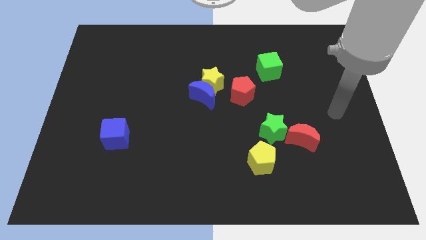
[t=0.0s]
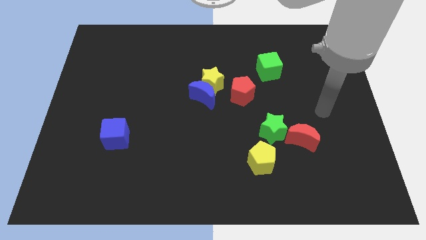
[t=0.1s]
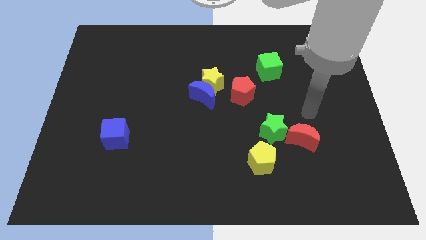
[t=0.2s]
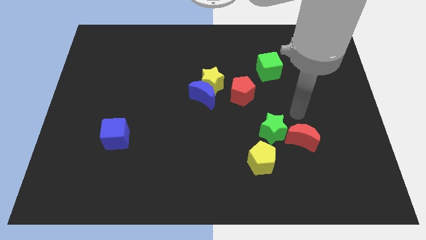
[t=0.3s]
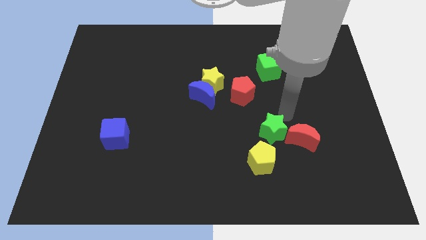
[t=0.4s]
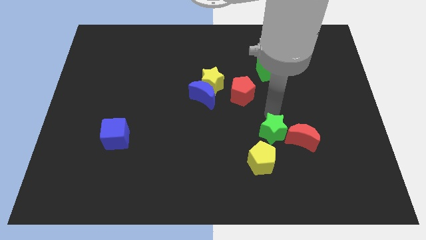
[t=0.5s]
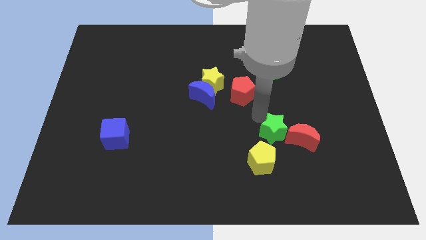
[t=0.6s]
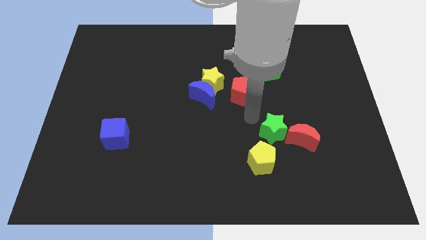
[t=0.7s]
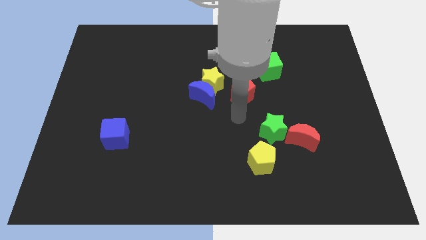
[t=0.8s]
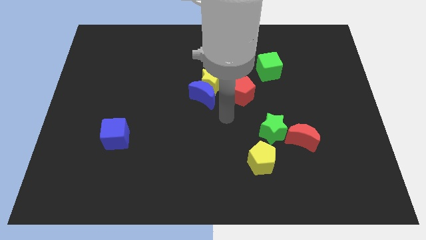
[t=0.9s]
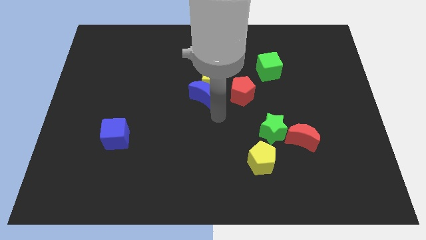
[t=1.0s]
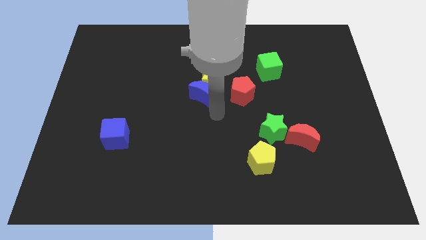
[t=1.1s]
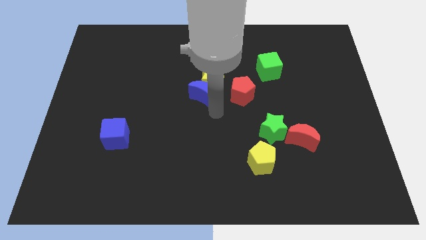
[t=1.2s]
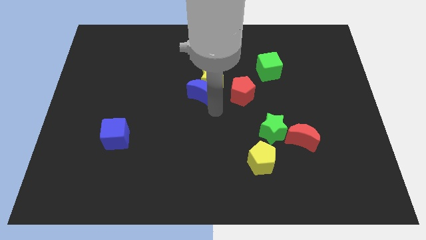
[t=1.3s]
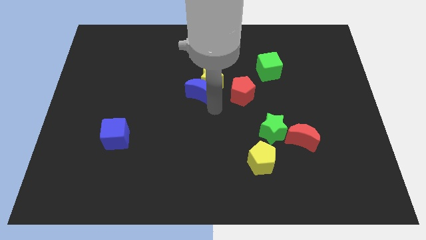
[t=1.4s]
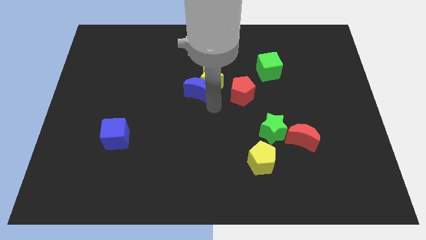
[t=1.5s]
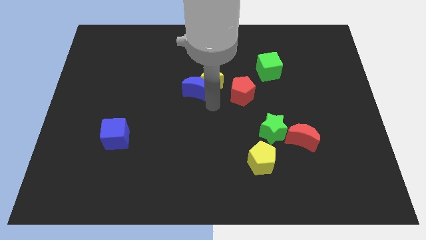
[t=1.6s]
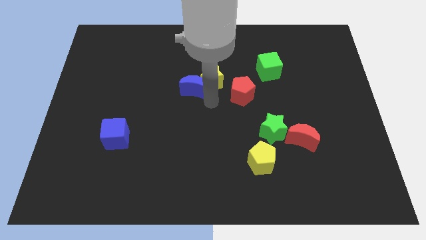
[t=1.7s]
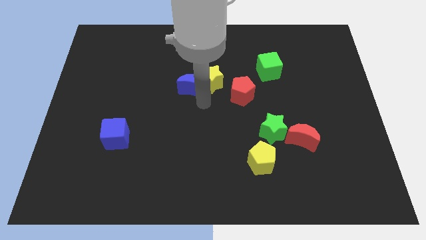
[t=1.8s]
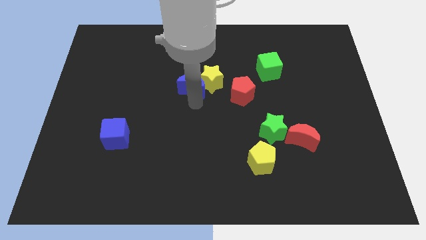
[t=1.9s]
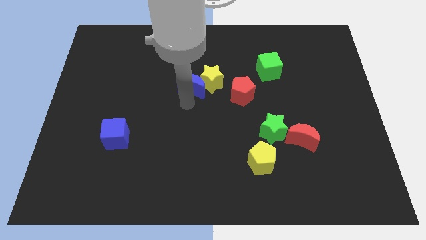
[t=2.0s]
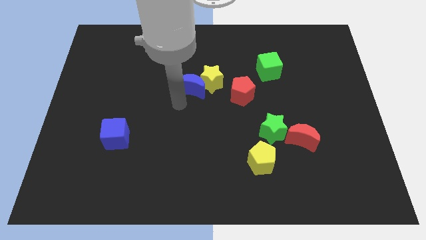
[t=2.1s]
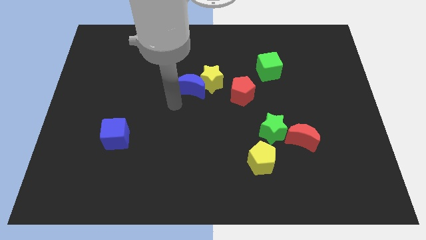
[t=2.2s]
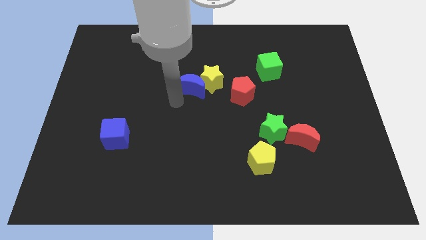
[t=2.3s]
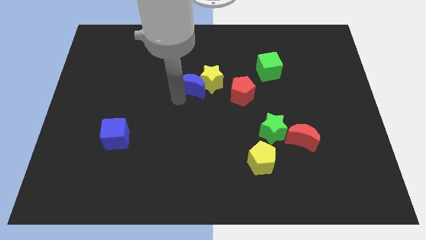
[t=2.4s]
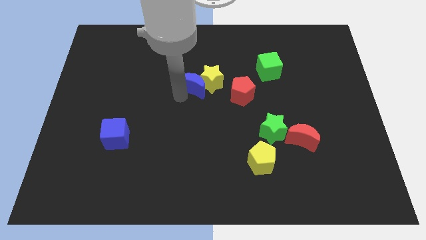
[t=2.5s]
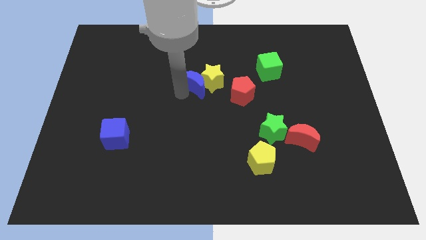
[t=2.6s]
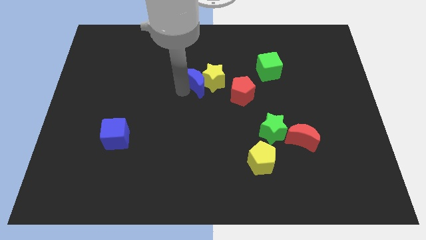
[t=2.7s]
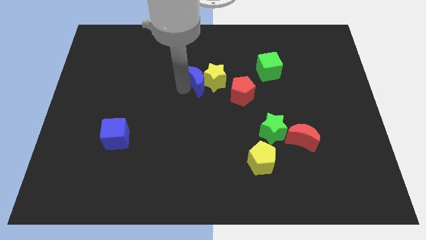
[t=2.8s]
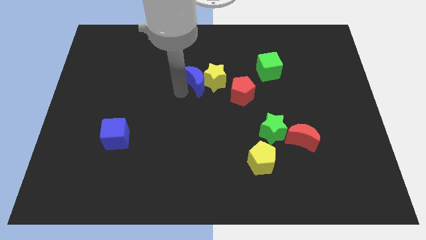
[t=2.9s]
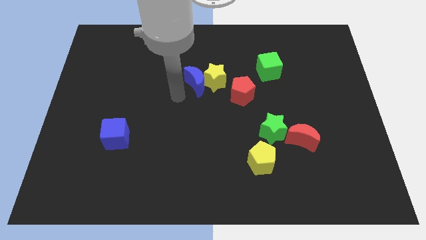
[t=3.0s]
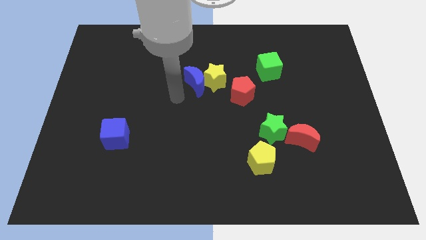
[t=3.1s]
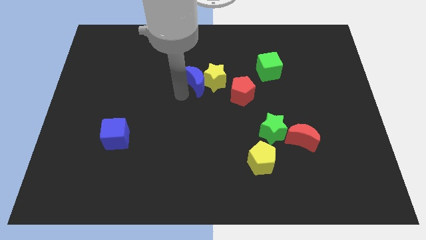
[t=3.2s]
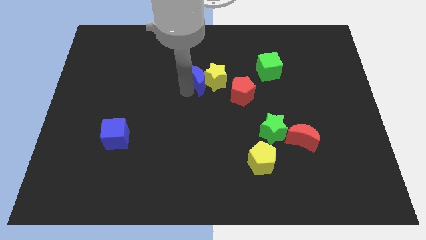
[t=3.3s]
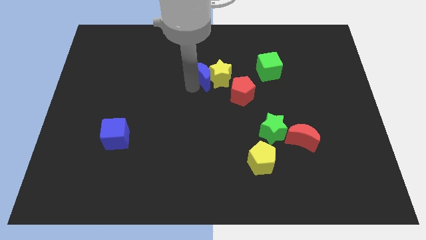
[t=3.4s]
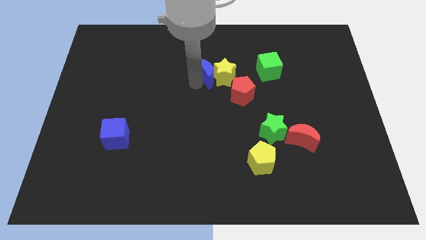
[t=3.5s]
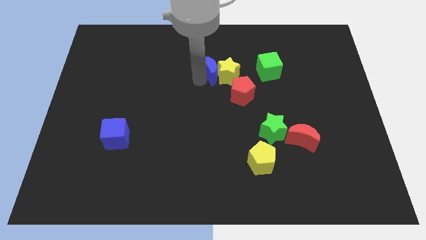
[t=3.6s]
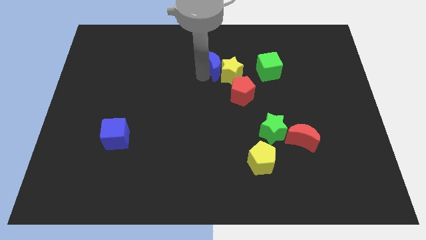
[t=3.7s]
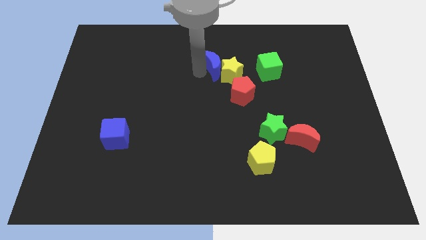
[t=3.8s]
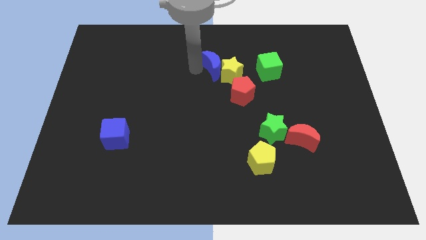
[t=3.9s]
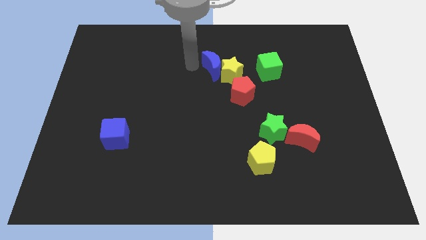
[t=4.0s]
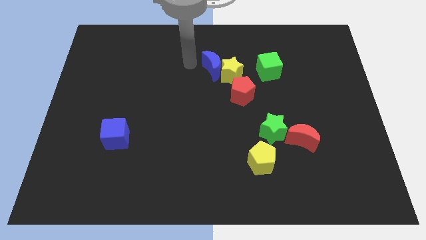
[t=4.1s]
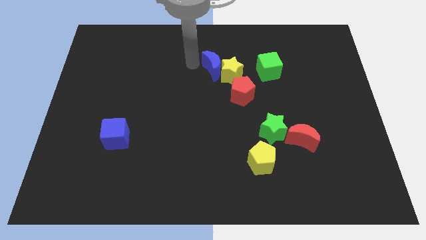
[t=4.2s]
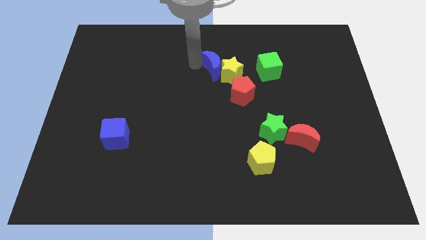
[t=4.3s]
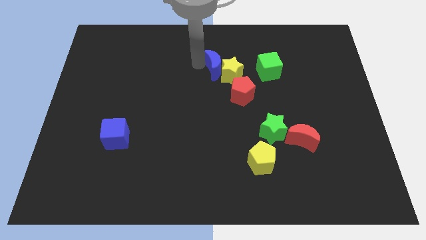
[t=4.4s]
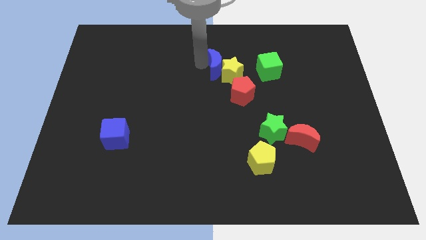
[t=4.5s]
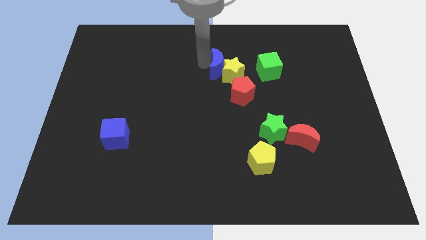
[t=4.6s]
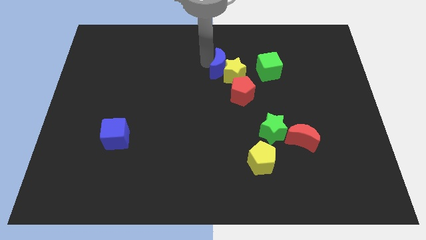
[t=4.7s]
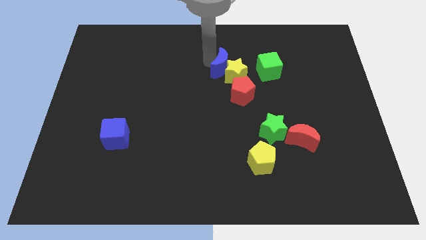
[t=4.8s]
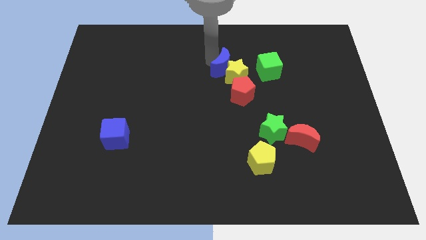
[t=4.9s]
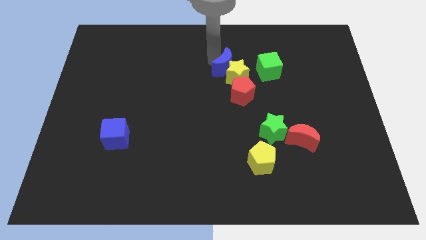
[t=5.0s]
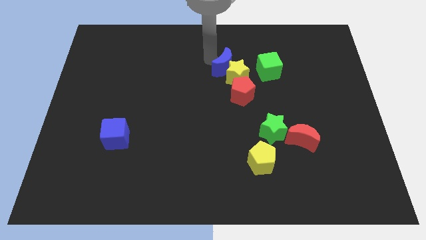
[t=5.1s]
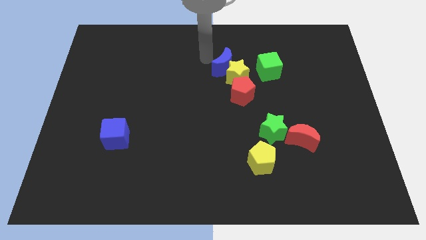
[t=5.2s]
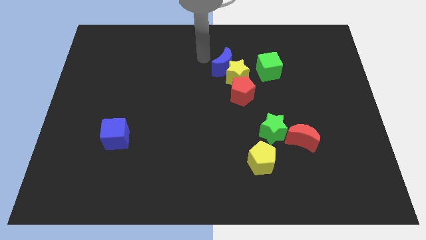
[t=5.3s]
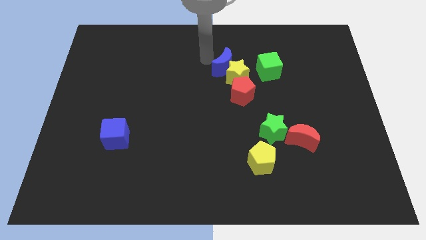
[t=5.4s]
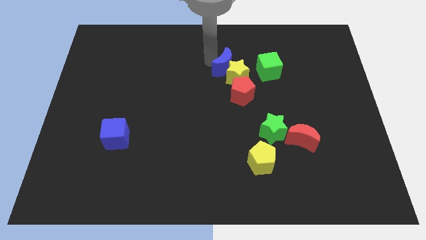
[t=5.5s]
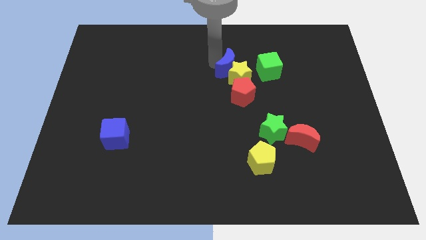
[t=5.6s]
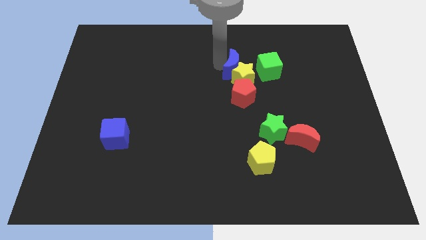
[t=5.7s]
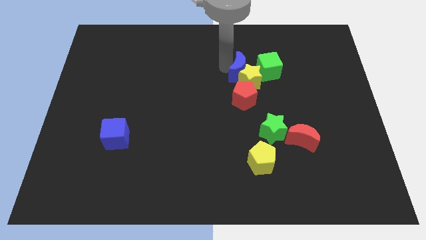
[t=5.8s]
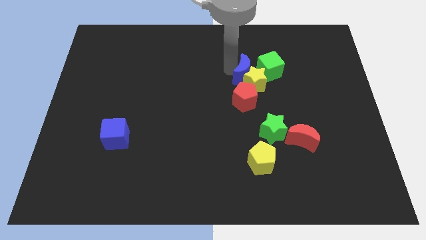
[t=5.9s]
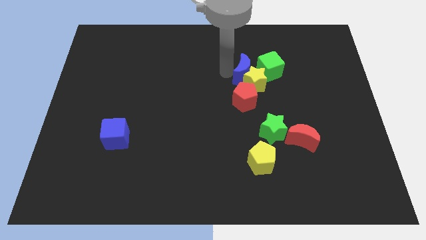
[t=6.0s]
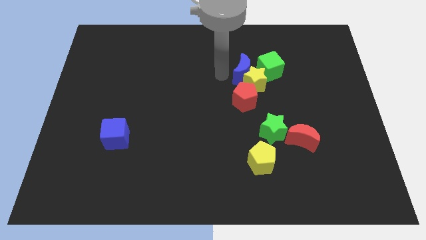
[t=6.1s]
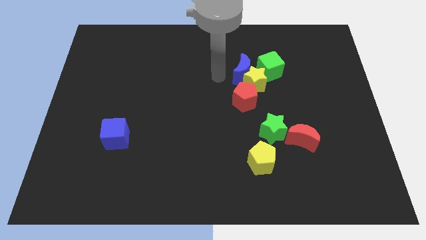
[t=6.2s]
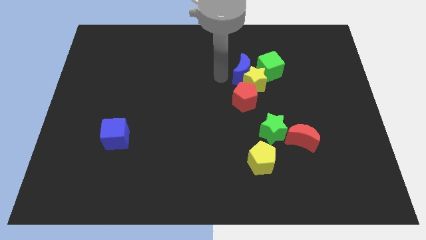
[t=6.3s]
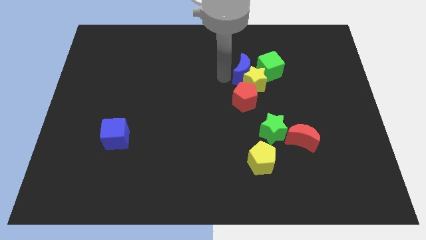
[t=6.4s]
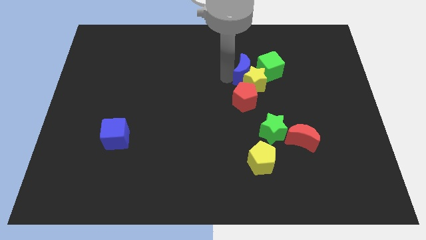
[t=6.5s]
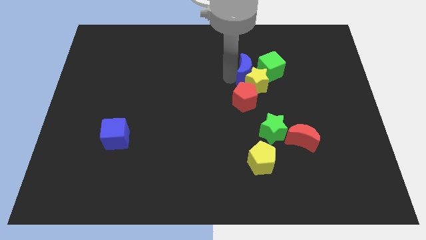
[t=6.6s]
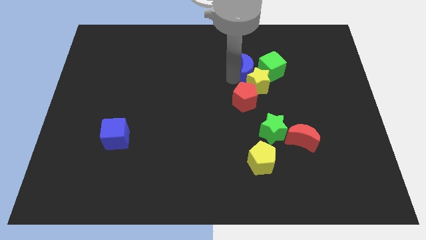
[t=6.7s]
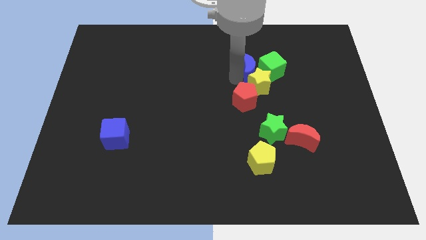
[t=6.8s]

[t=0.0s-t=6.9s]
slide the blue moon close to the green cube

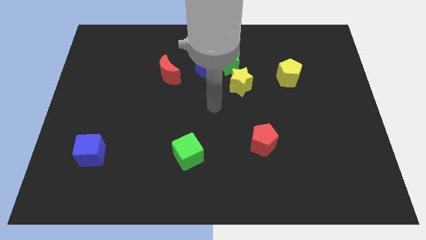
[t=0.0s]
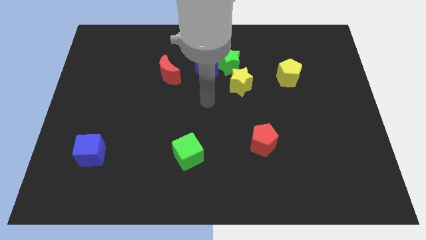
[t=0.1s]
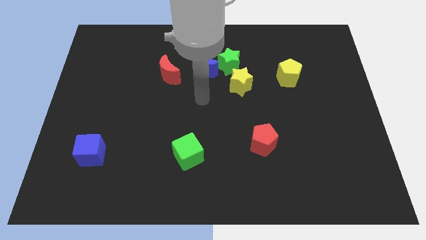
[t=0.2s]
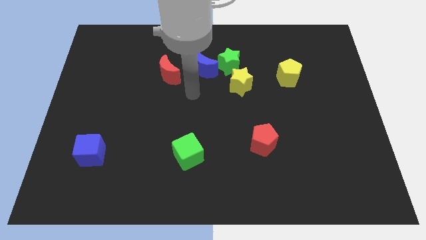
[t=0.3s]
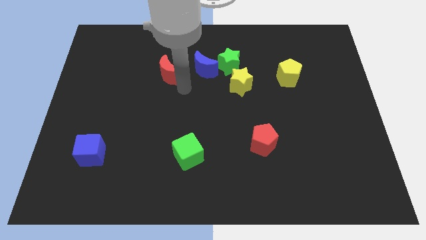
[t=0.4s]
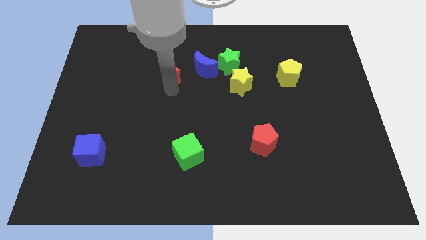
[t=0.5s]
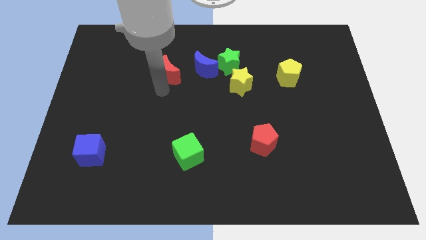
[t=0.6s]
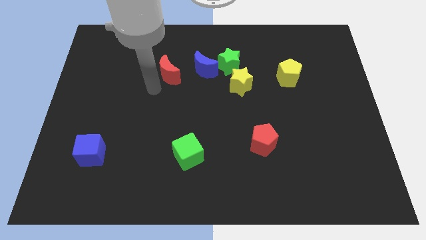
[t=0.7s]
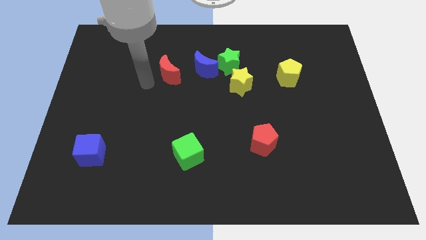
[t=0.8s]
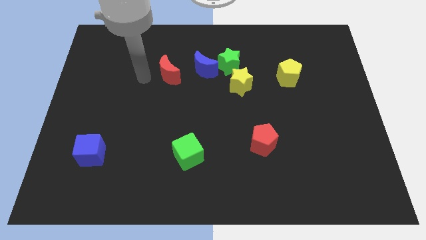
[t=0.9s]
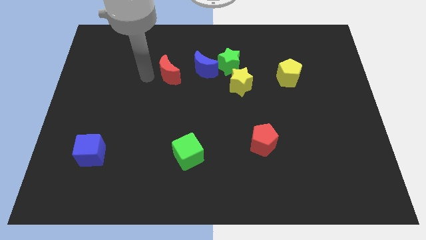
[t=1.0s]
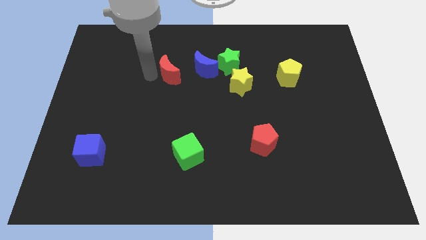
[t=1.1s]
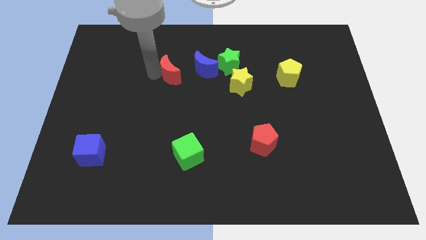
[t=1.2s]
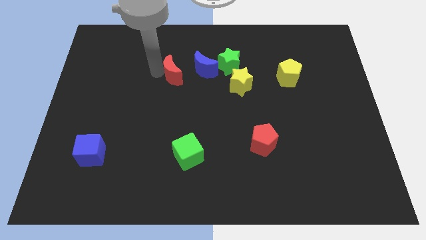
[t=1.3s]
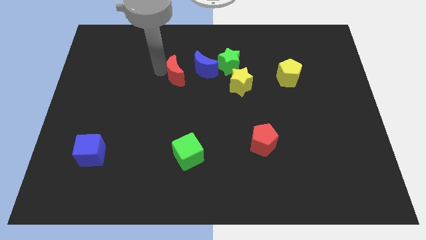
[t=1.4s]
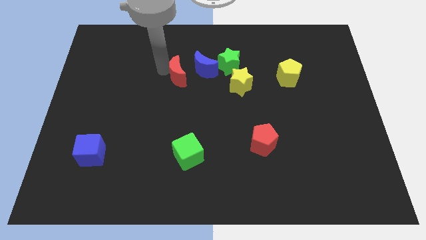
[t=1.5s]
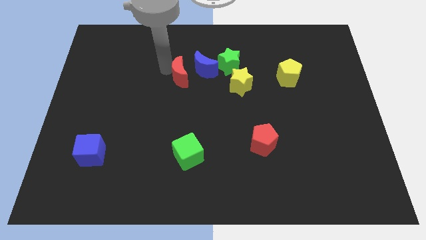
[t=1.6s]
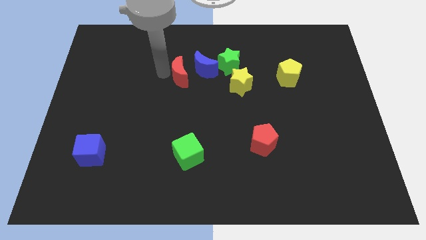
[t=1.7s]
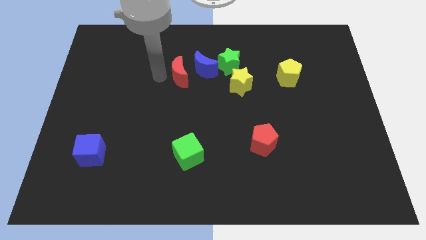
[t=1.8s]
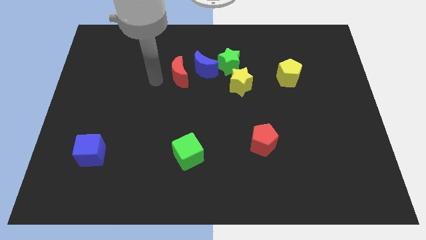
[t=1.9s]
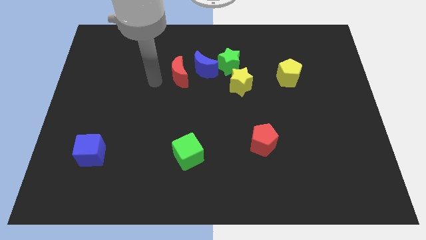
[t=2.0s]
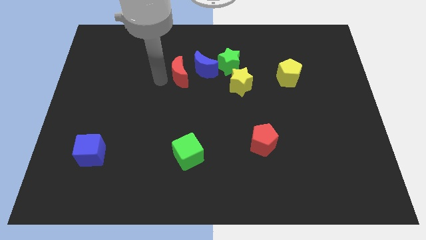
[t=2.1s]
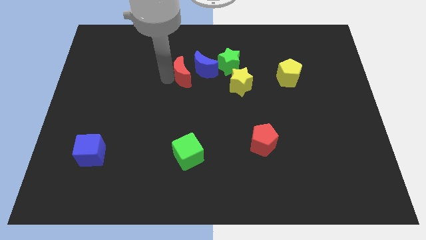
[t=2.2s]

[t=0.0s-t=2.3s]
slide the red moon close to the blue moon
